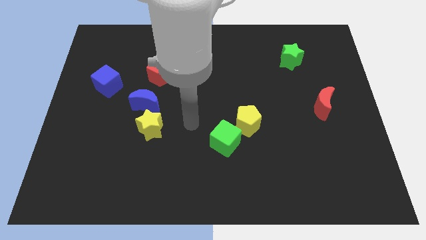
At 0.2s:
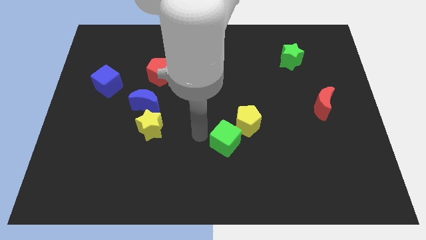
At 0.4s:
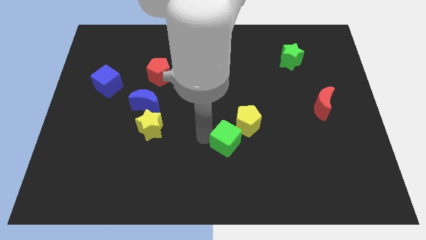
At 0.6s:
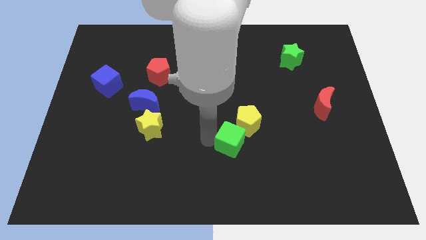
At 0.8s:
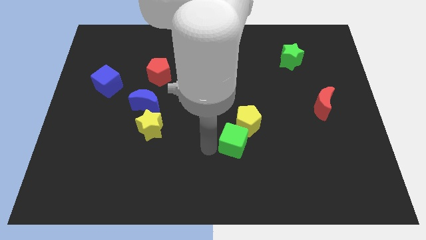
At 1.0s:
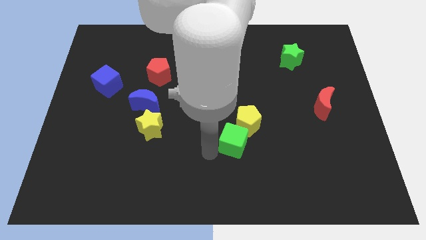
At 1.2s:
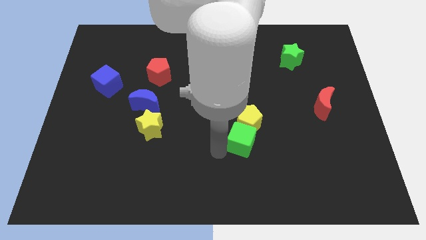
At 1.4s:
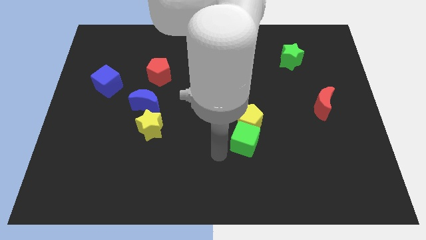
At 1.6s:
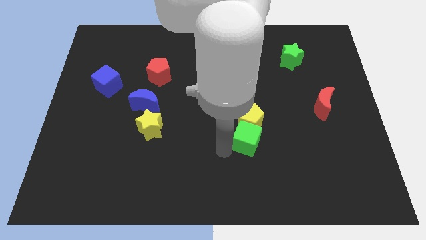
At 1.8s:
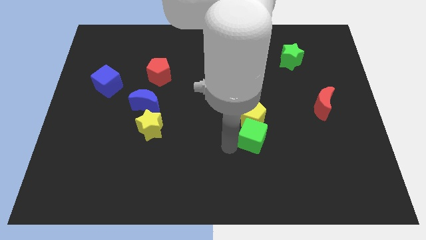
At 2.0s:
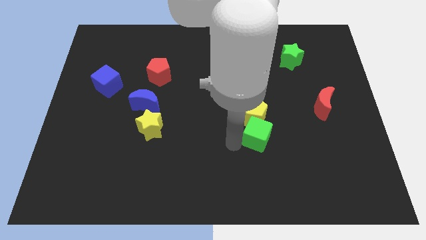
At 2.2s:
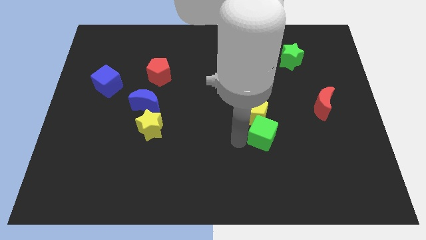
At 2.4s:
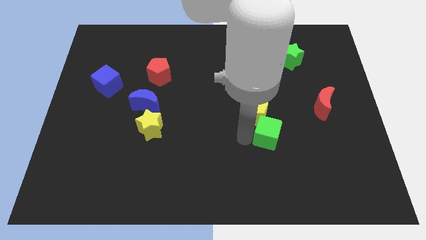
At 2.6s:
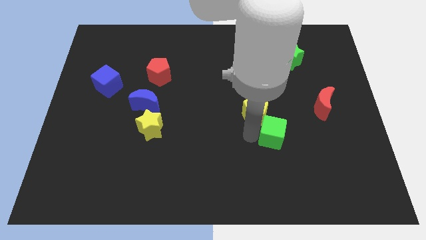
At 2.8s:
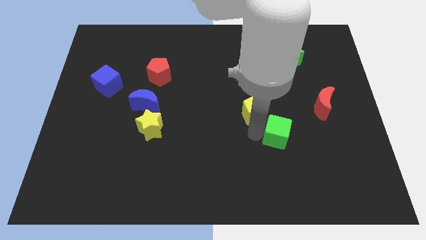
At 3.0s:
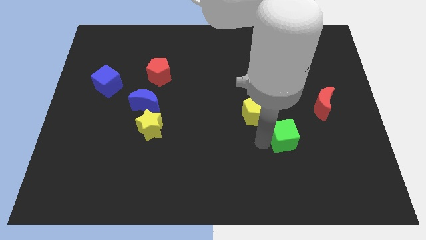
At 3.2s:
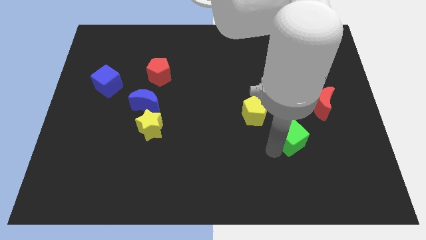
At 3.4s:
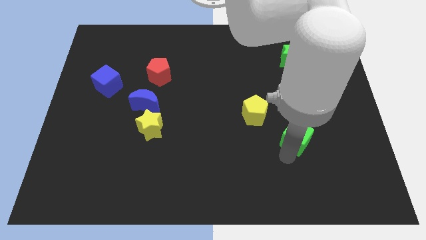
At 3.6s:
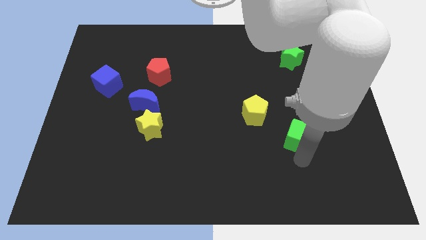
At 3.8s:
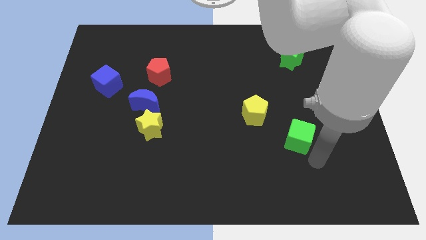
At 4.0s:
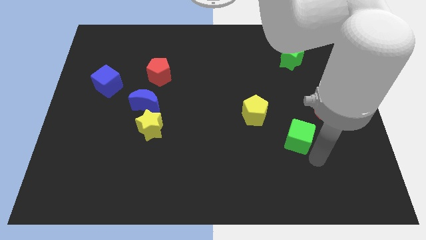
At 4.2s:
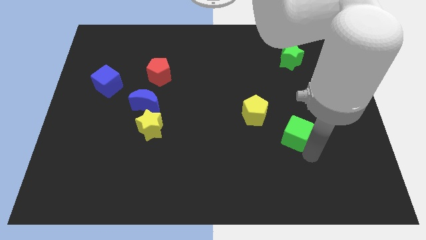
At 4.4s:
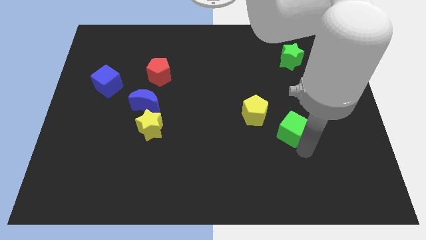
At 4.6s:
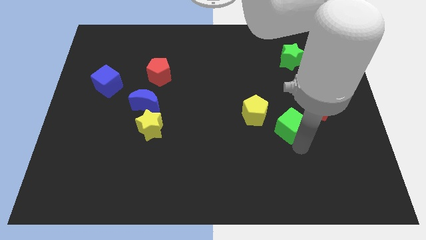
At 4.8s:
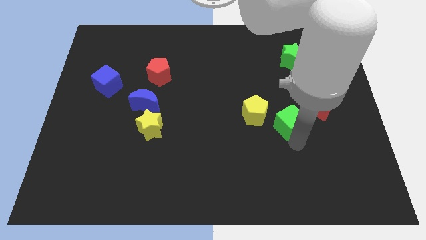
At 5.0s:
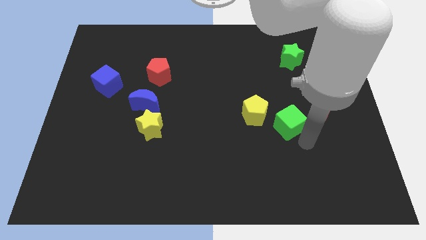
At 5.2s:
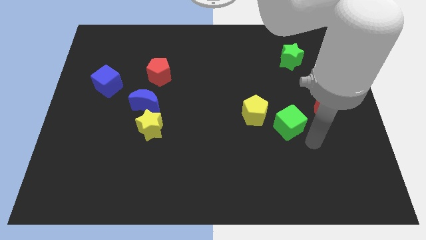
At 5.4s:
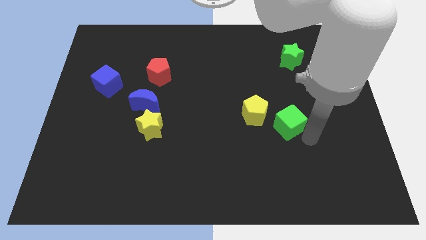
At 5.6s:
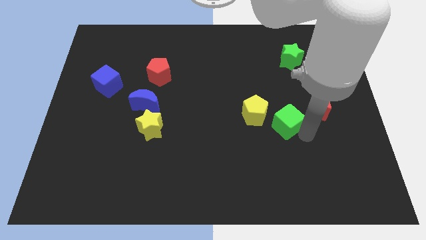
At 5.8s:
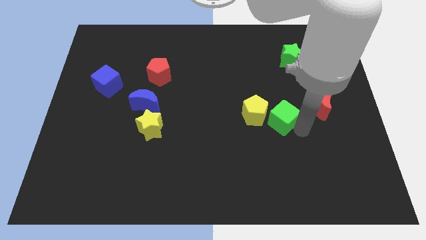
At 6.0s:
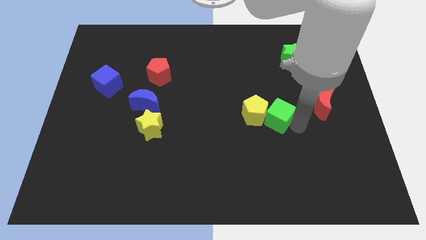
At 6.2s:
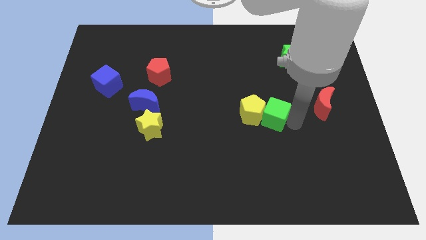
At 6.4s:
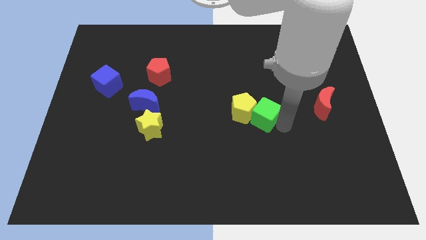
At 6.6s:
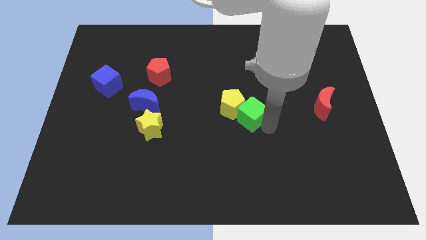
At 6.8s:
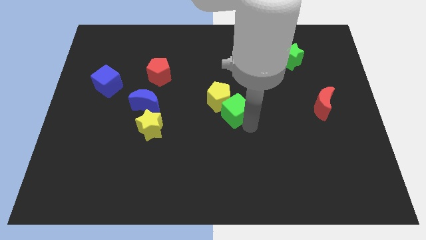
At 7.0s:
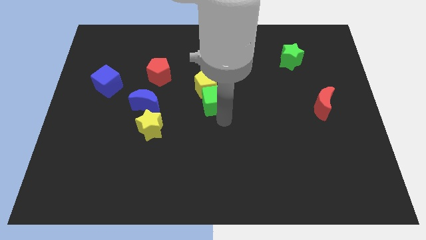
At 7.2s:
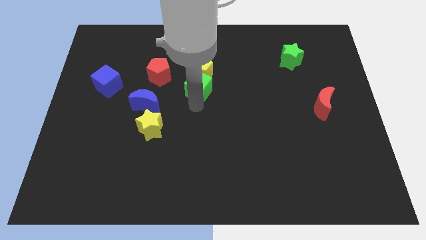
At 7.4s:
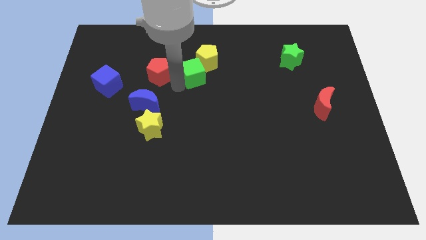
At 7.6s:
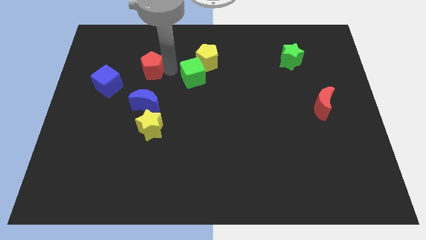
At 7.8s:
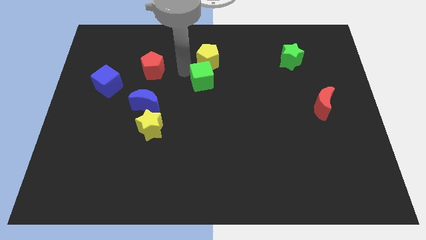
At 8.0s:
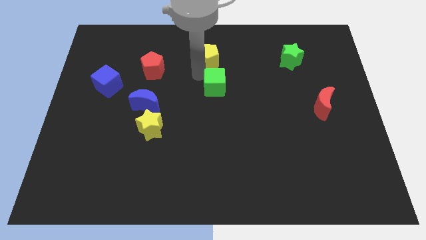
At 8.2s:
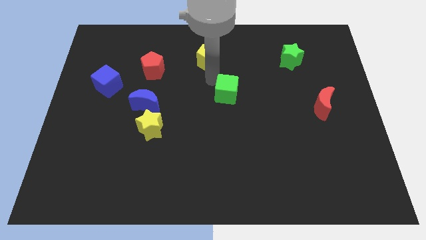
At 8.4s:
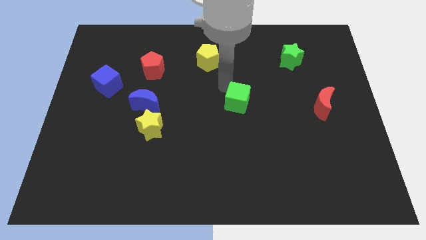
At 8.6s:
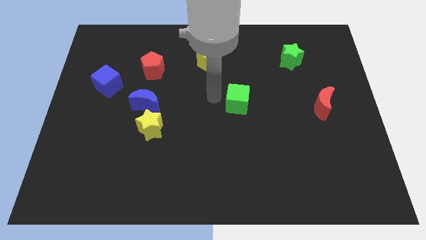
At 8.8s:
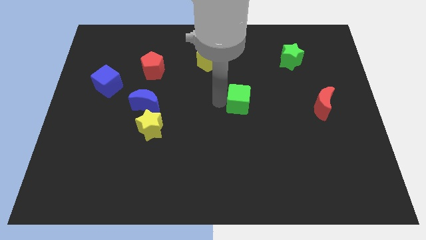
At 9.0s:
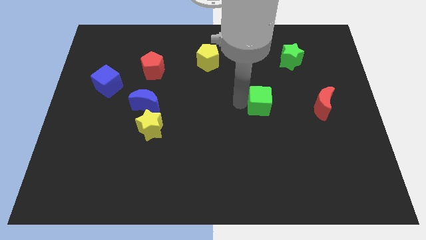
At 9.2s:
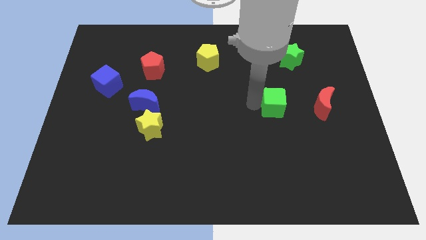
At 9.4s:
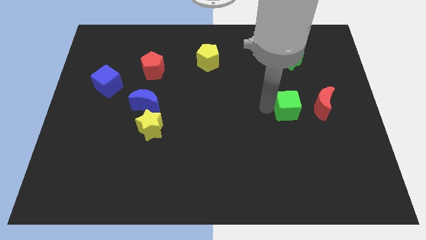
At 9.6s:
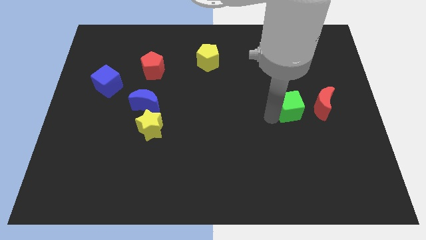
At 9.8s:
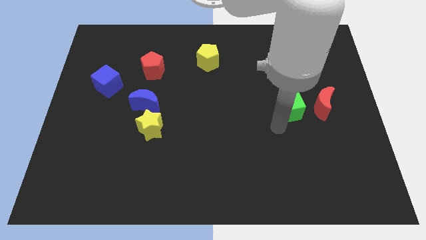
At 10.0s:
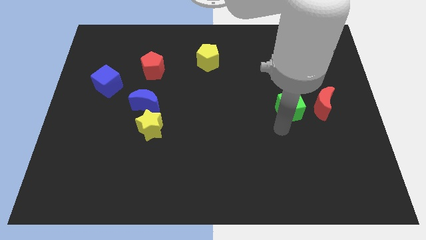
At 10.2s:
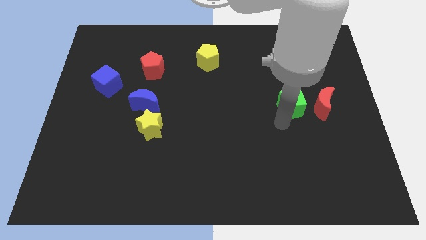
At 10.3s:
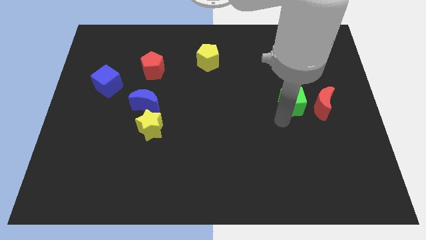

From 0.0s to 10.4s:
slide the green cube to the top left of the red moon

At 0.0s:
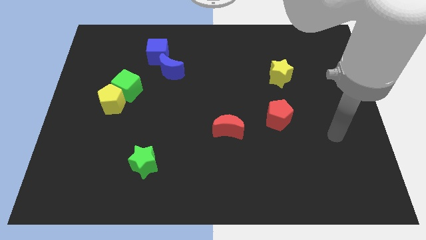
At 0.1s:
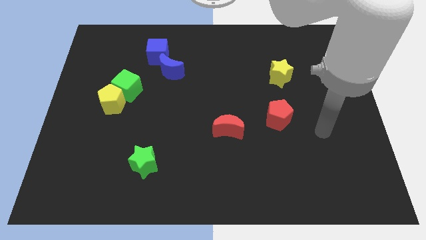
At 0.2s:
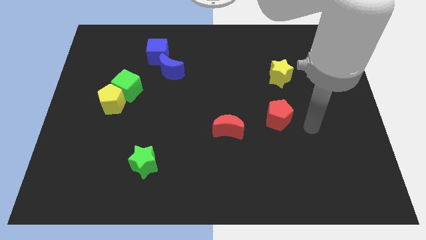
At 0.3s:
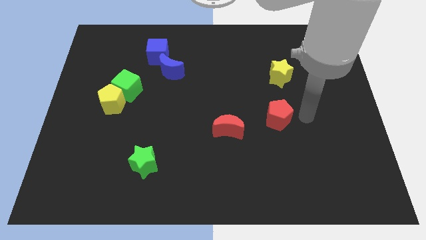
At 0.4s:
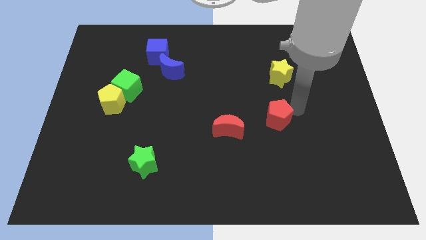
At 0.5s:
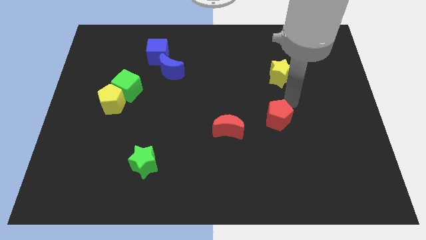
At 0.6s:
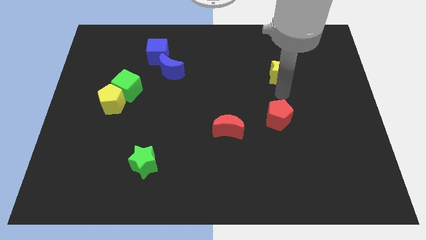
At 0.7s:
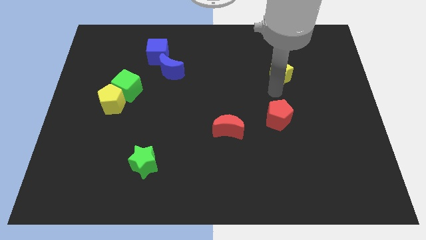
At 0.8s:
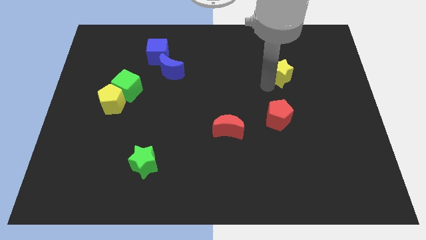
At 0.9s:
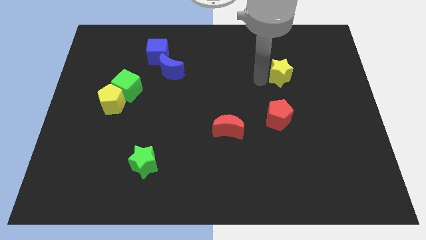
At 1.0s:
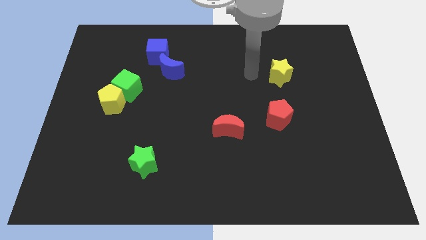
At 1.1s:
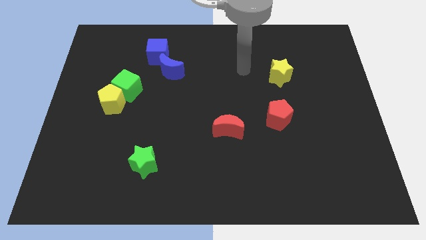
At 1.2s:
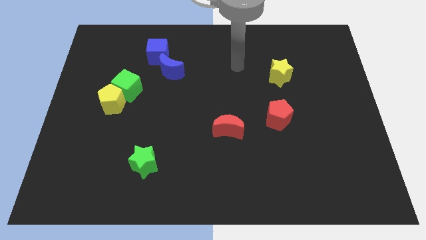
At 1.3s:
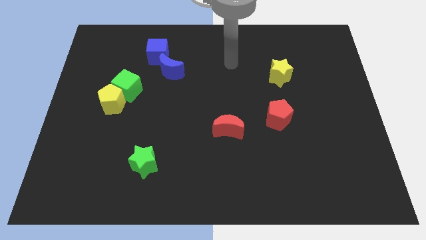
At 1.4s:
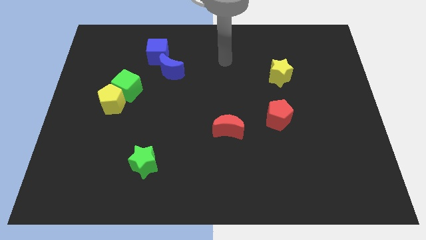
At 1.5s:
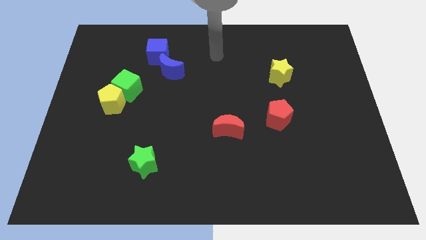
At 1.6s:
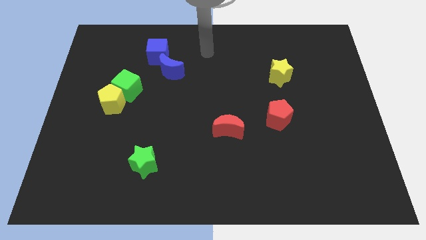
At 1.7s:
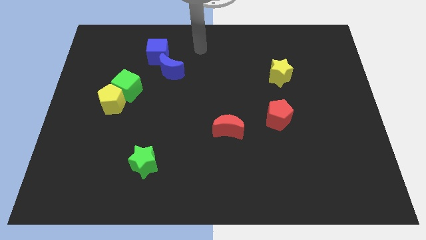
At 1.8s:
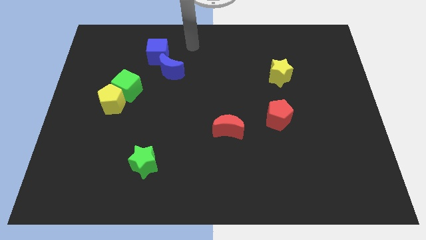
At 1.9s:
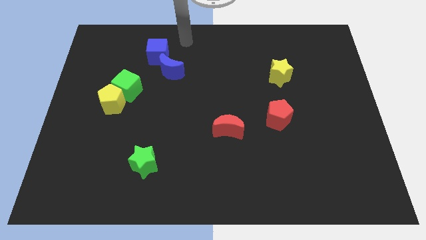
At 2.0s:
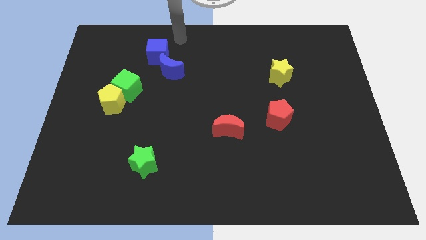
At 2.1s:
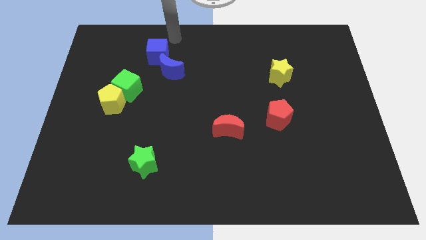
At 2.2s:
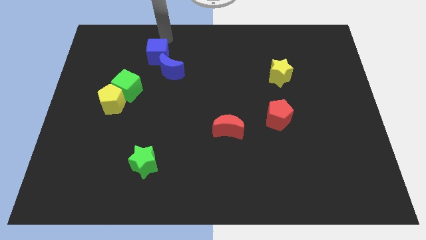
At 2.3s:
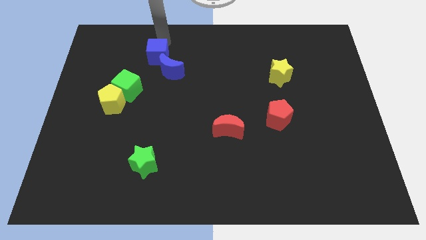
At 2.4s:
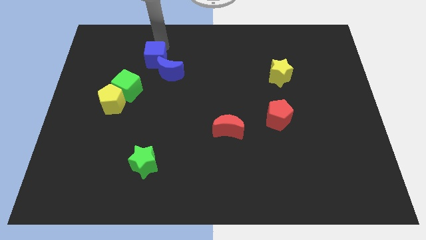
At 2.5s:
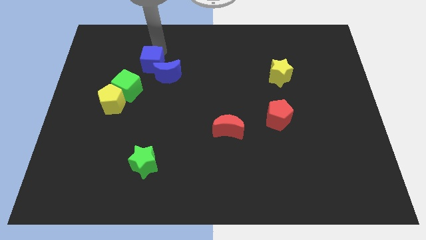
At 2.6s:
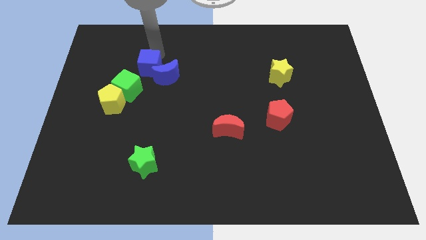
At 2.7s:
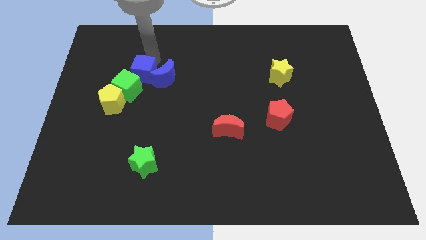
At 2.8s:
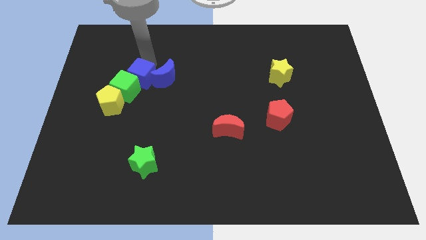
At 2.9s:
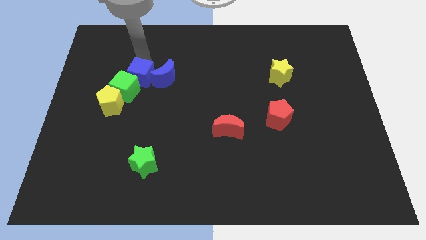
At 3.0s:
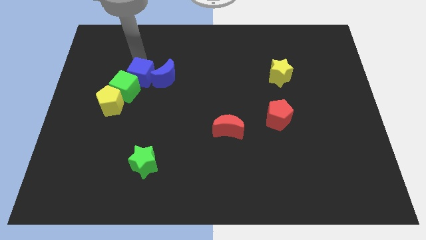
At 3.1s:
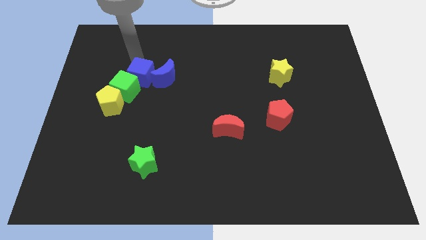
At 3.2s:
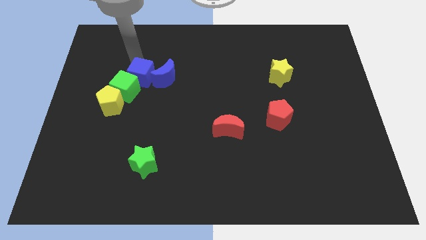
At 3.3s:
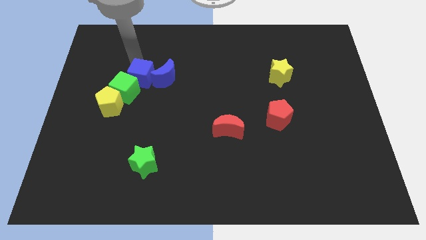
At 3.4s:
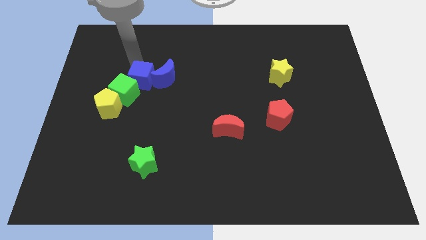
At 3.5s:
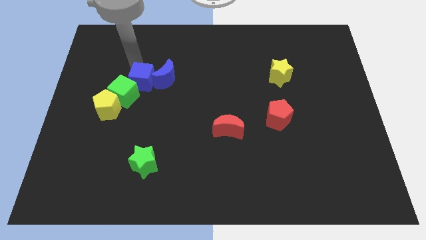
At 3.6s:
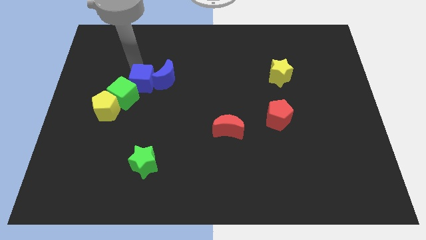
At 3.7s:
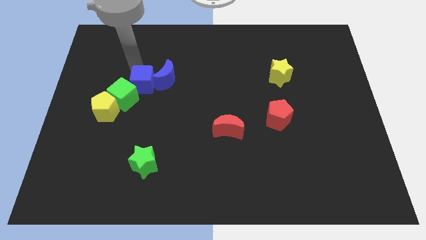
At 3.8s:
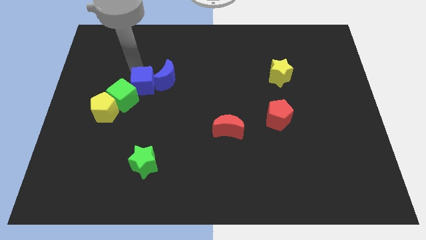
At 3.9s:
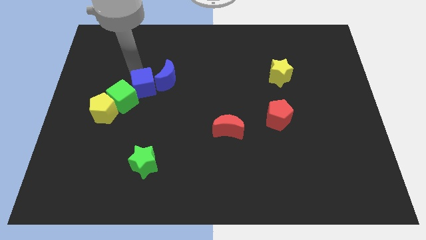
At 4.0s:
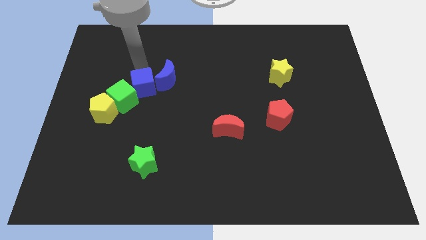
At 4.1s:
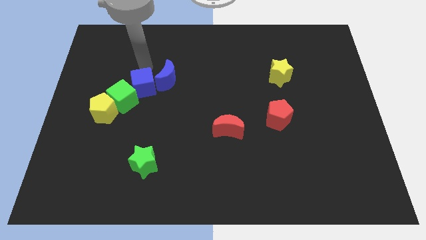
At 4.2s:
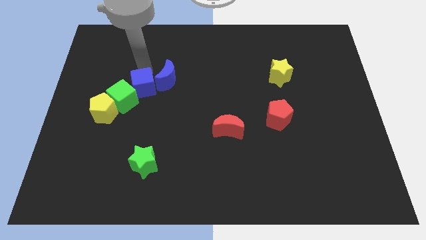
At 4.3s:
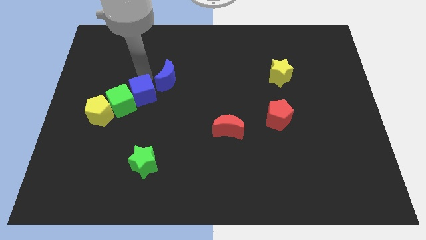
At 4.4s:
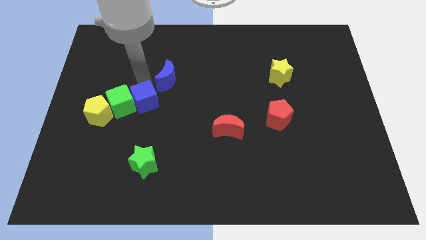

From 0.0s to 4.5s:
put the blue cube to the bottom right of the green cube
